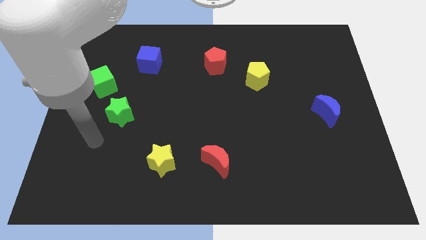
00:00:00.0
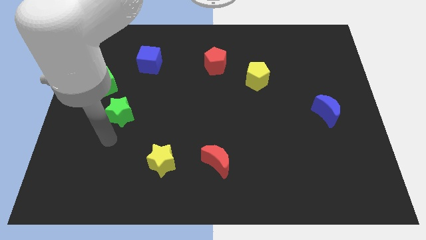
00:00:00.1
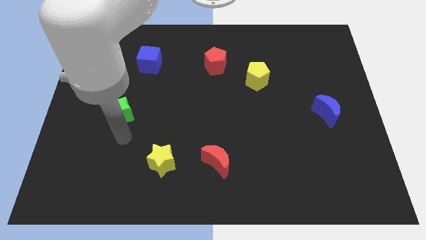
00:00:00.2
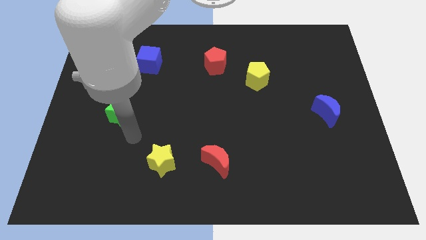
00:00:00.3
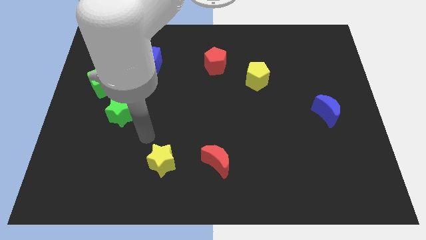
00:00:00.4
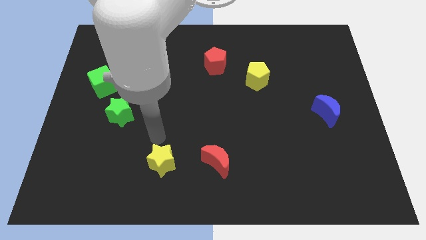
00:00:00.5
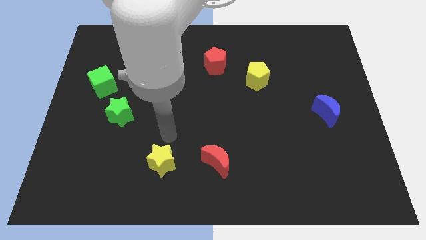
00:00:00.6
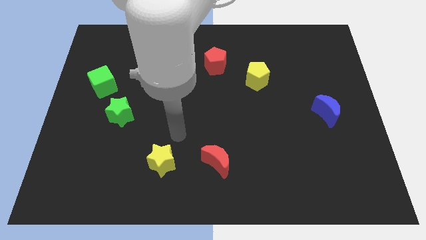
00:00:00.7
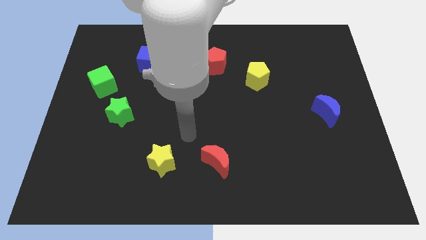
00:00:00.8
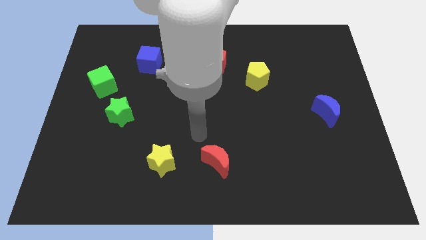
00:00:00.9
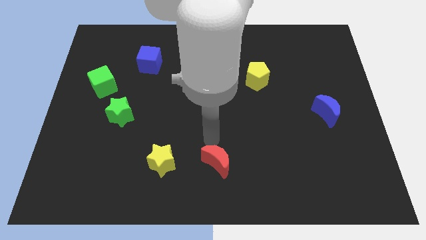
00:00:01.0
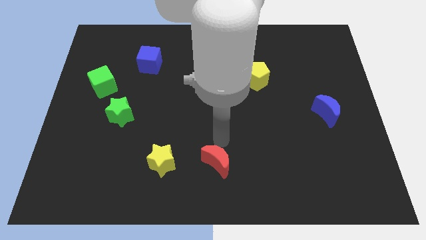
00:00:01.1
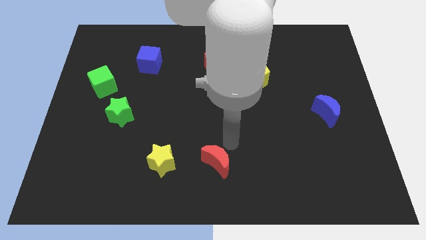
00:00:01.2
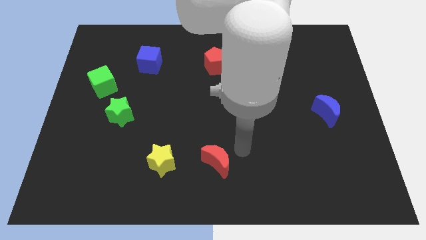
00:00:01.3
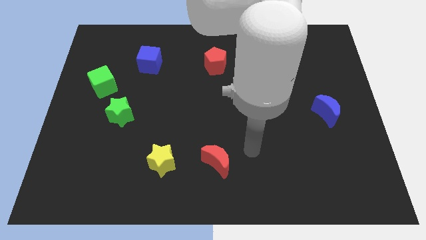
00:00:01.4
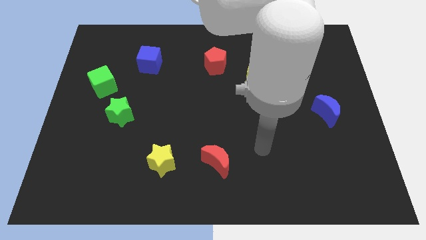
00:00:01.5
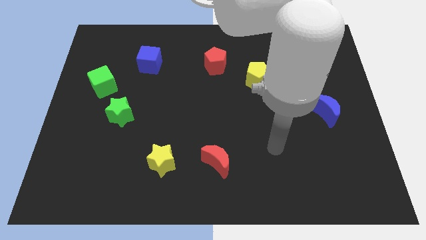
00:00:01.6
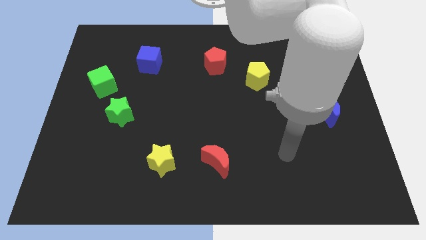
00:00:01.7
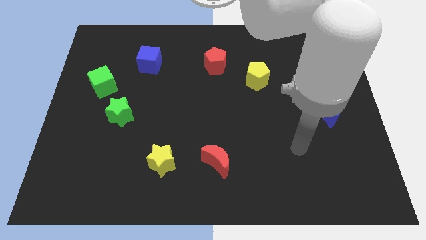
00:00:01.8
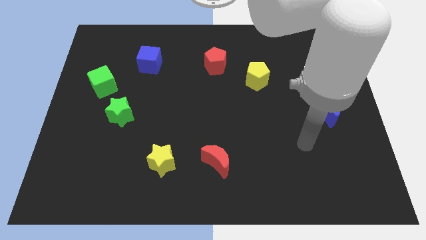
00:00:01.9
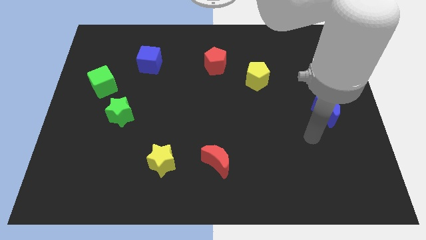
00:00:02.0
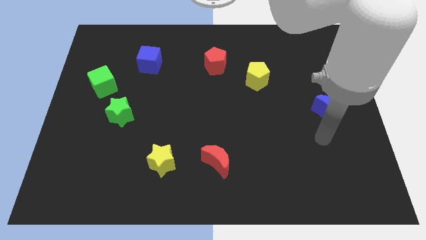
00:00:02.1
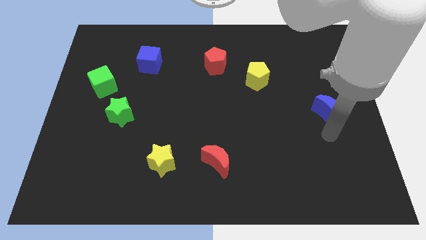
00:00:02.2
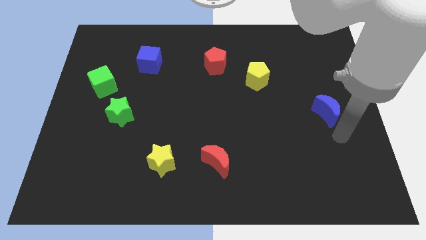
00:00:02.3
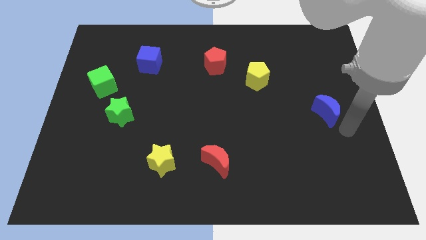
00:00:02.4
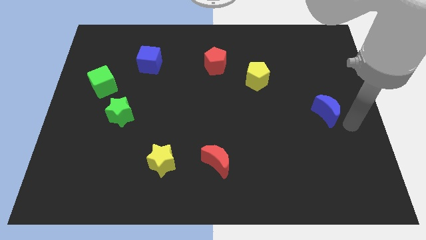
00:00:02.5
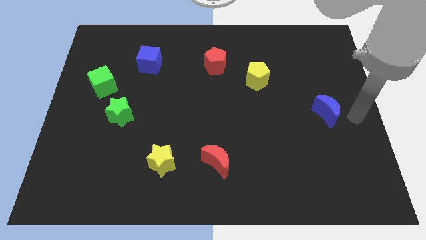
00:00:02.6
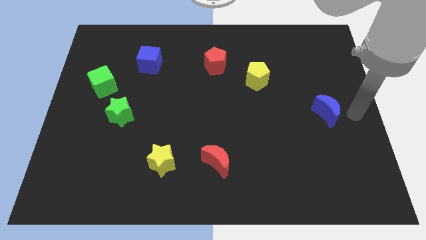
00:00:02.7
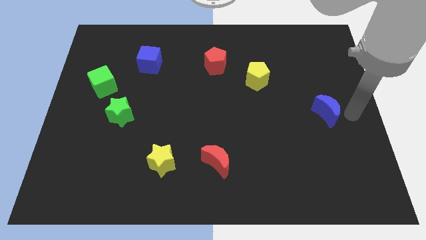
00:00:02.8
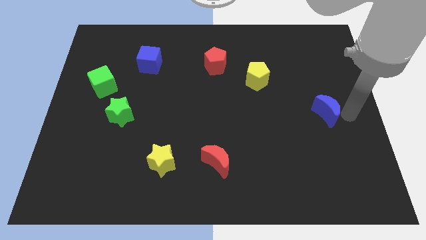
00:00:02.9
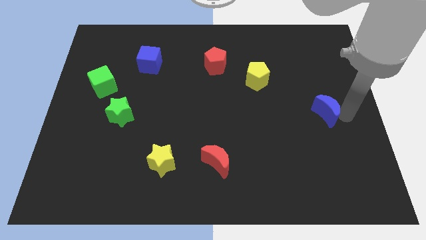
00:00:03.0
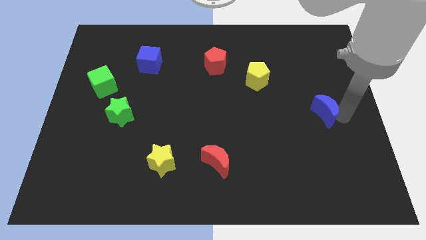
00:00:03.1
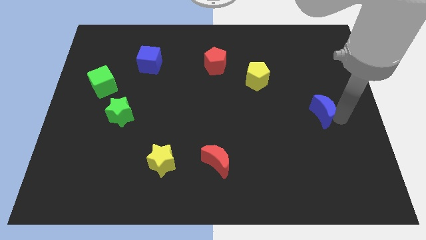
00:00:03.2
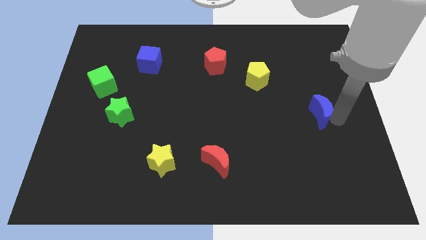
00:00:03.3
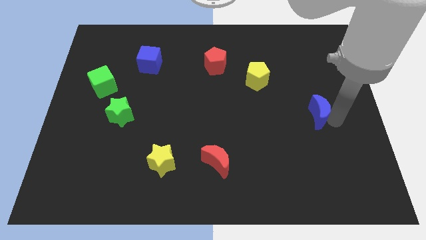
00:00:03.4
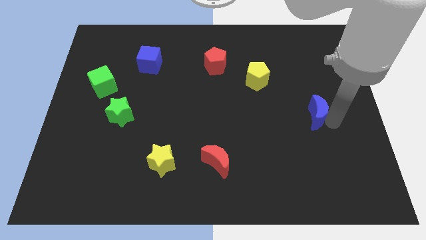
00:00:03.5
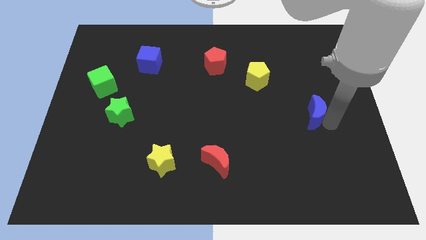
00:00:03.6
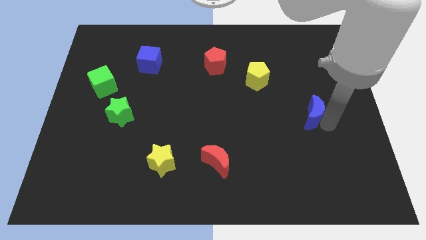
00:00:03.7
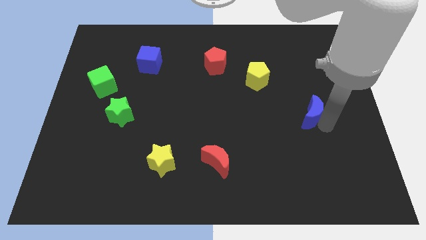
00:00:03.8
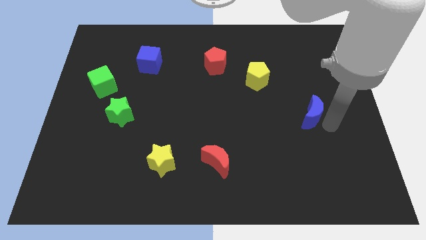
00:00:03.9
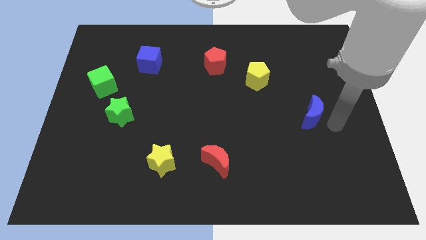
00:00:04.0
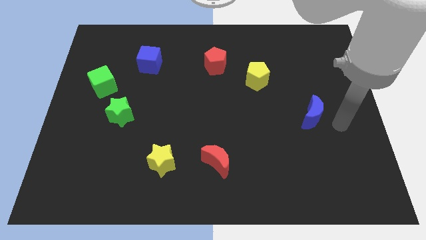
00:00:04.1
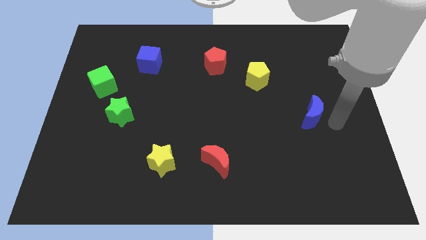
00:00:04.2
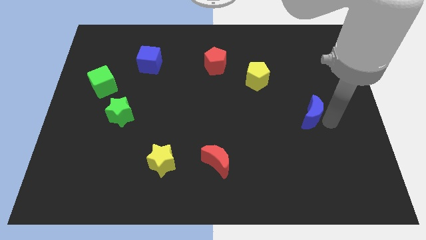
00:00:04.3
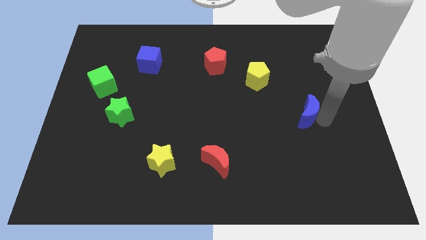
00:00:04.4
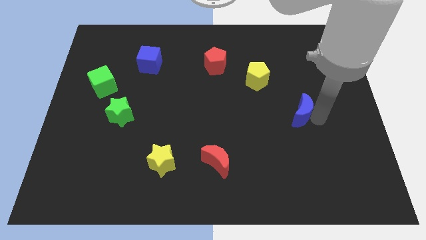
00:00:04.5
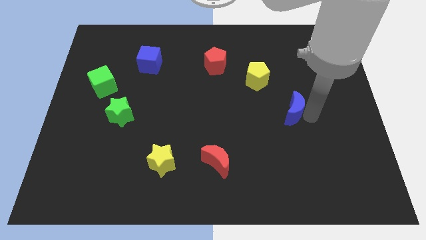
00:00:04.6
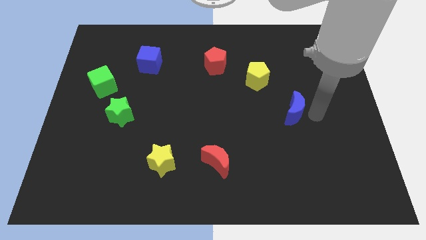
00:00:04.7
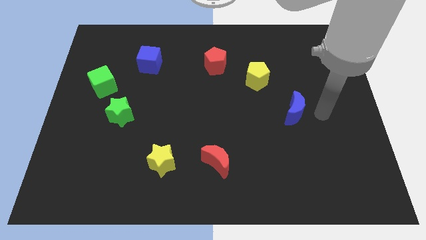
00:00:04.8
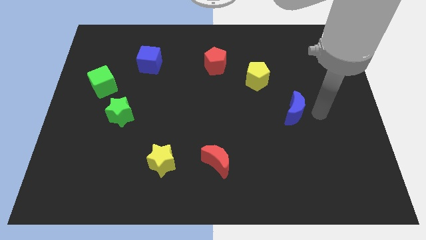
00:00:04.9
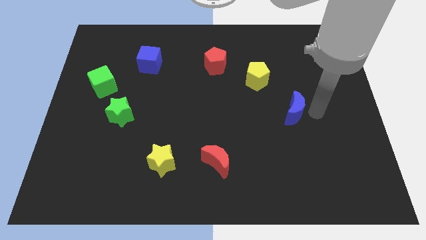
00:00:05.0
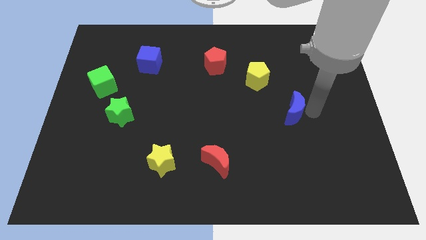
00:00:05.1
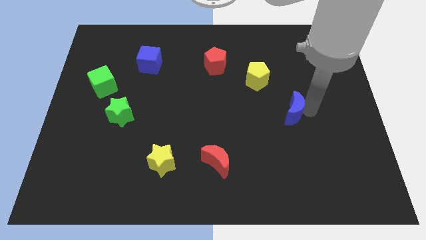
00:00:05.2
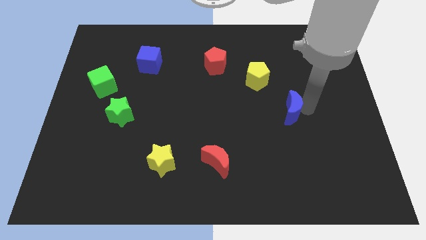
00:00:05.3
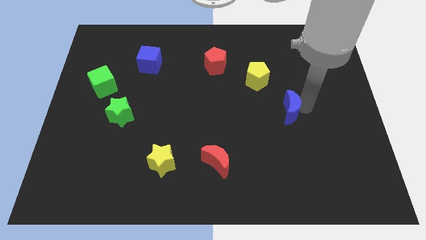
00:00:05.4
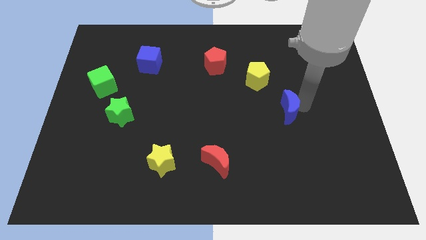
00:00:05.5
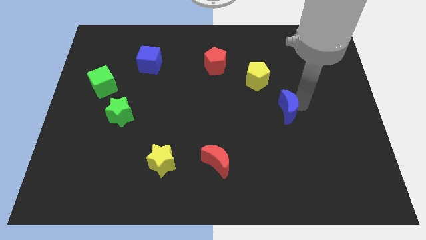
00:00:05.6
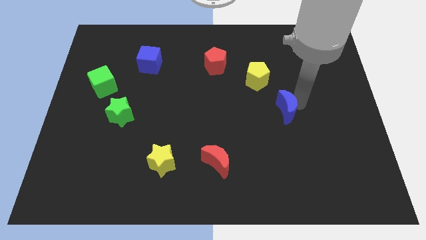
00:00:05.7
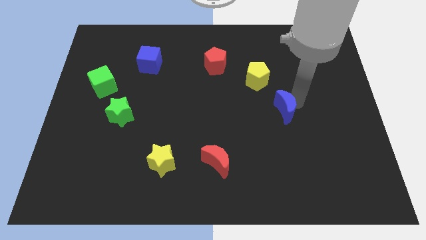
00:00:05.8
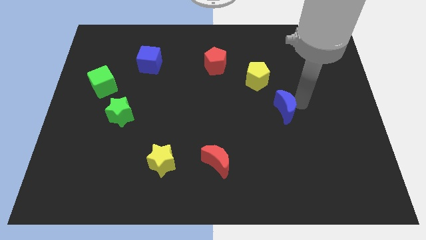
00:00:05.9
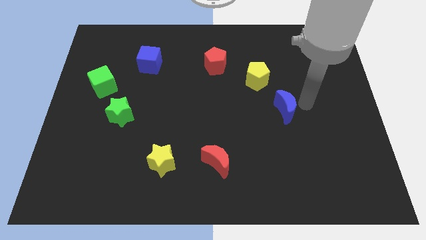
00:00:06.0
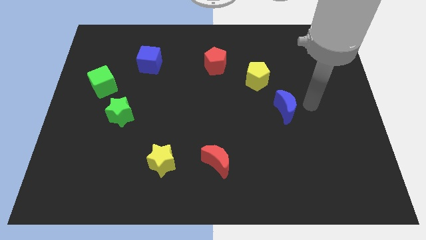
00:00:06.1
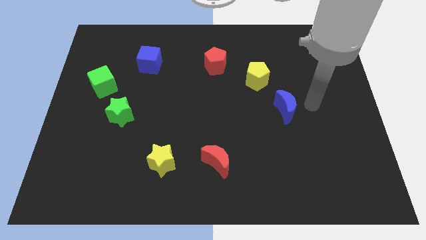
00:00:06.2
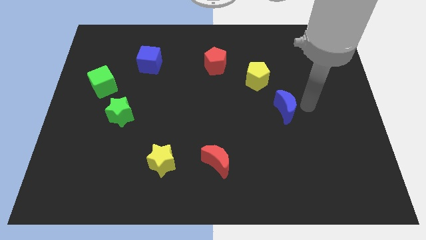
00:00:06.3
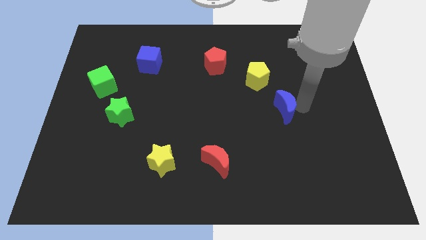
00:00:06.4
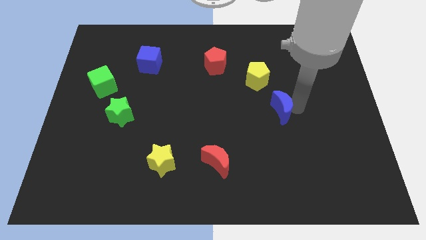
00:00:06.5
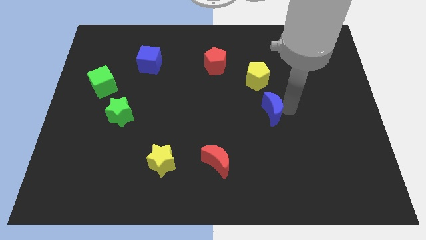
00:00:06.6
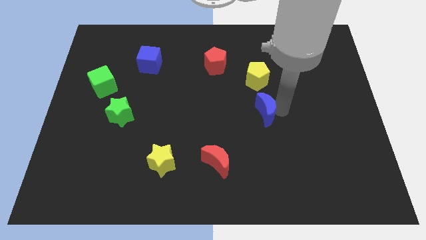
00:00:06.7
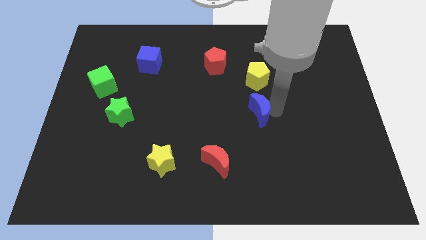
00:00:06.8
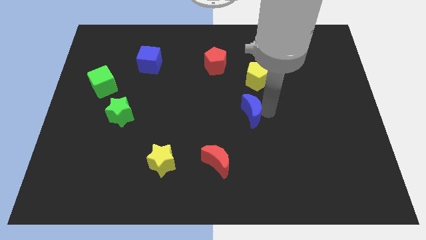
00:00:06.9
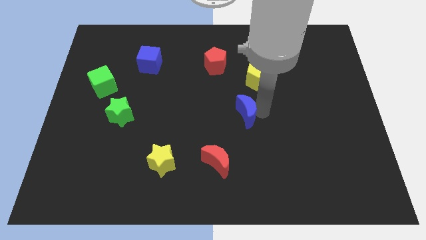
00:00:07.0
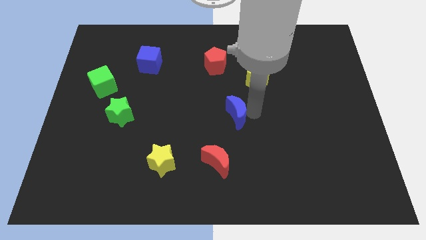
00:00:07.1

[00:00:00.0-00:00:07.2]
push the blue moon to the left

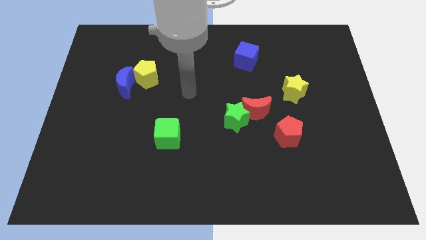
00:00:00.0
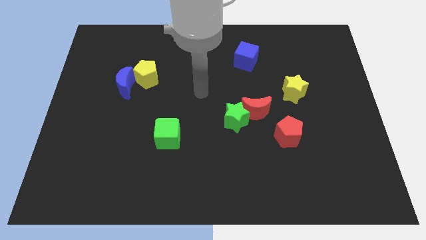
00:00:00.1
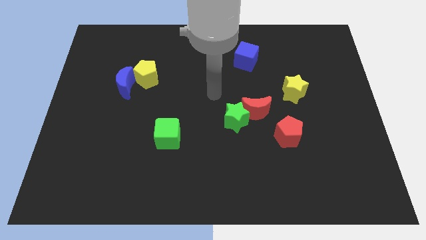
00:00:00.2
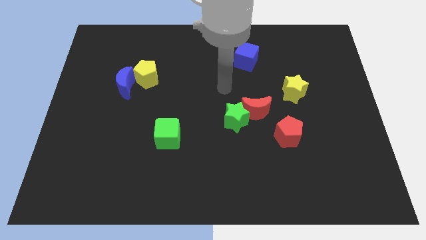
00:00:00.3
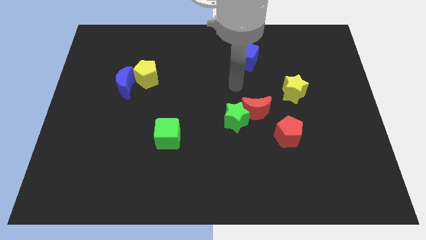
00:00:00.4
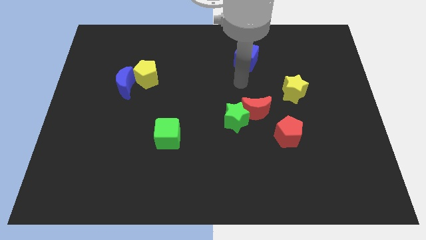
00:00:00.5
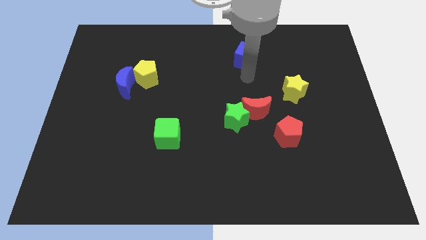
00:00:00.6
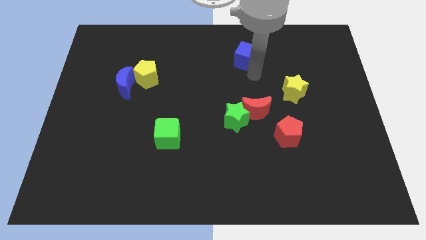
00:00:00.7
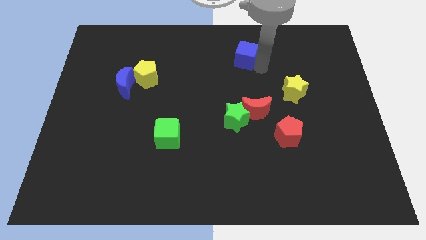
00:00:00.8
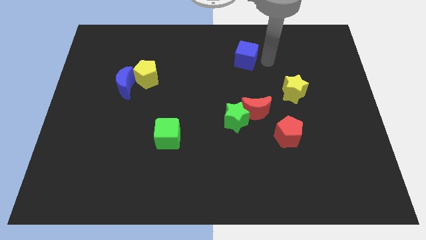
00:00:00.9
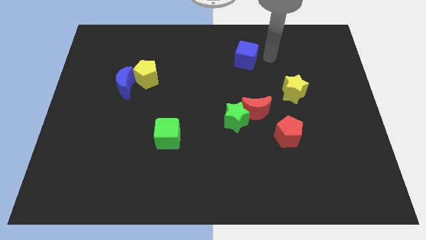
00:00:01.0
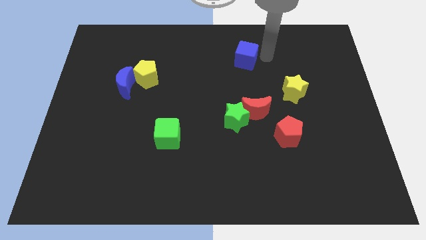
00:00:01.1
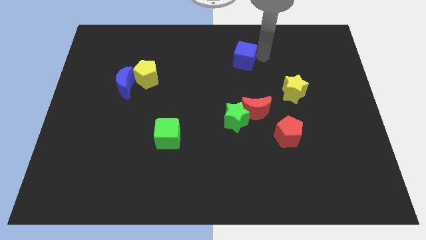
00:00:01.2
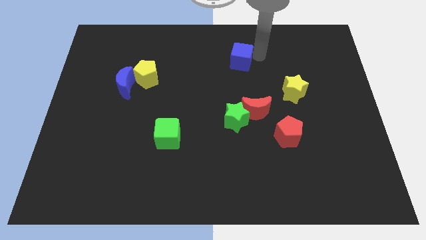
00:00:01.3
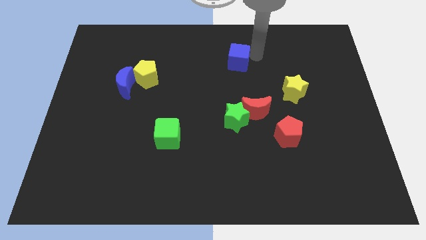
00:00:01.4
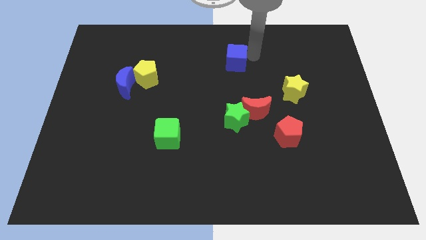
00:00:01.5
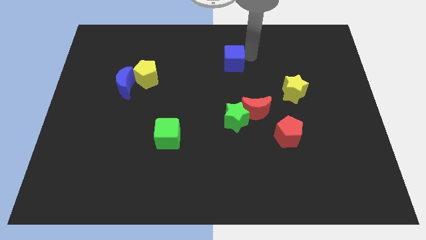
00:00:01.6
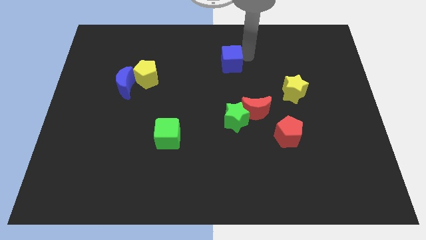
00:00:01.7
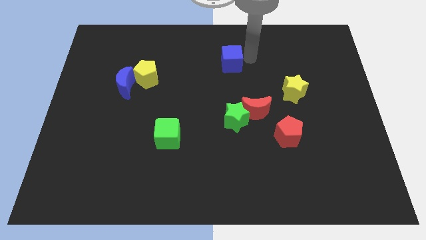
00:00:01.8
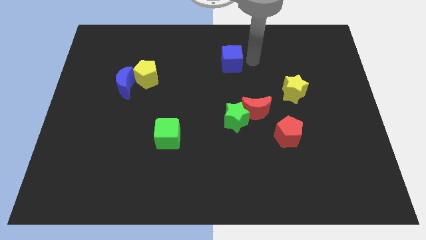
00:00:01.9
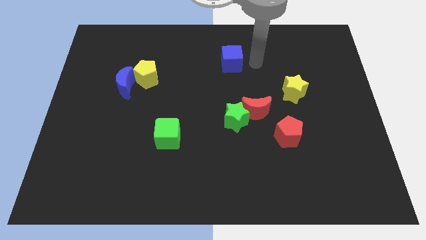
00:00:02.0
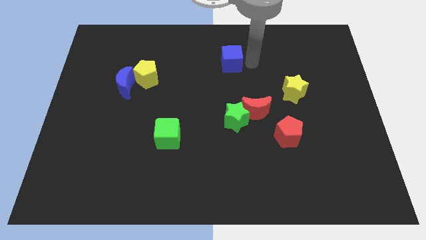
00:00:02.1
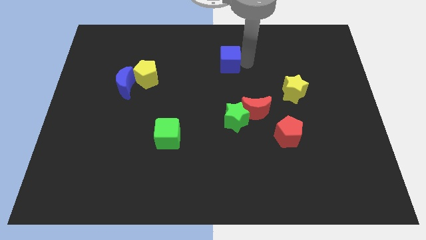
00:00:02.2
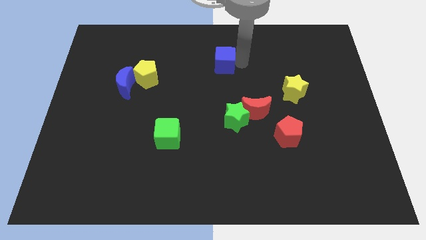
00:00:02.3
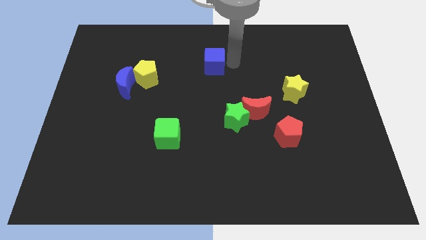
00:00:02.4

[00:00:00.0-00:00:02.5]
slightly push the blue cube to the left
